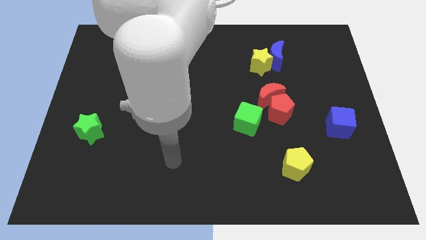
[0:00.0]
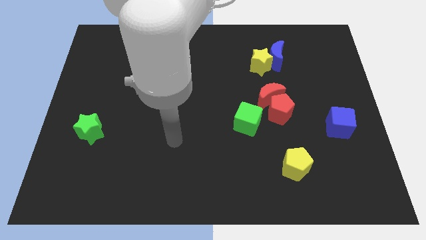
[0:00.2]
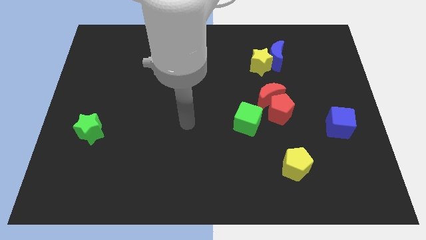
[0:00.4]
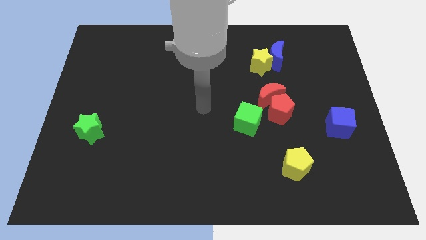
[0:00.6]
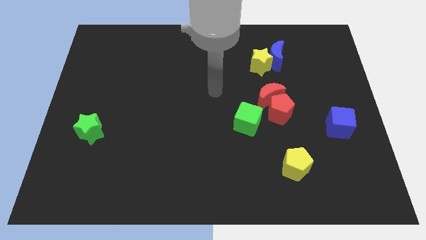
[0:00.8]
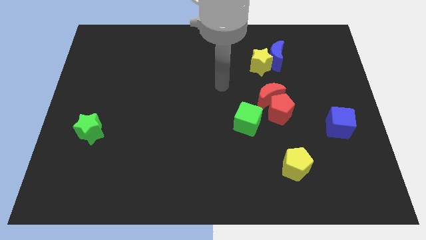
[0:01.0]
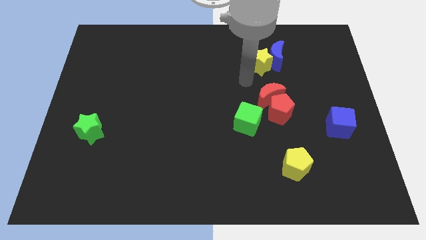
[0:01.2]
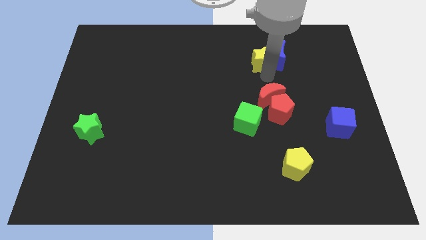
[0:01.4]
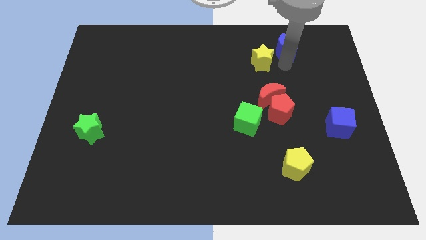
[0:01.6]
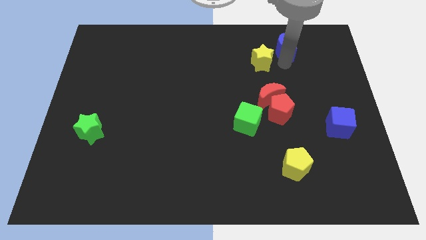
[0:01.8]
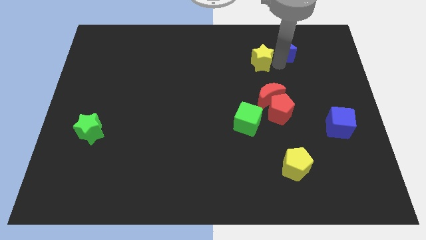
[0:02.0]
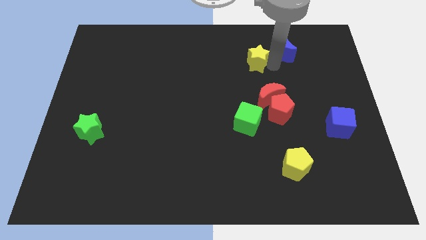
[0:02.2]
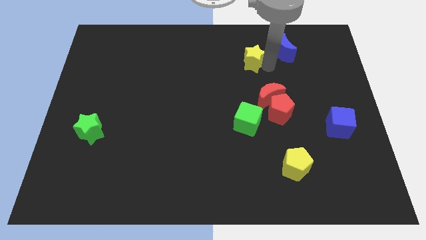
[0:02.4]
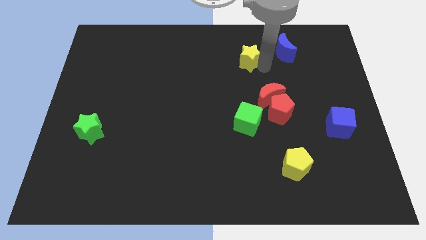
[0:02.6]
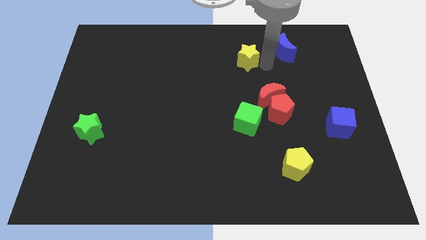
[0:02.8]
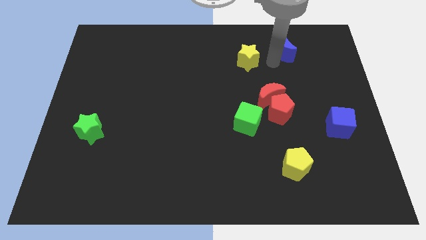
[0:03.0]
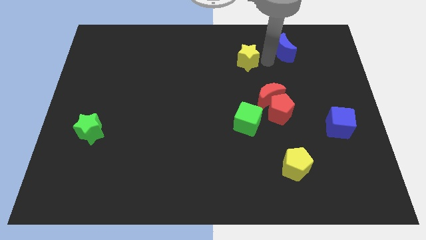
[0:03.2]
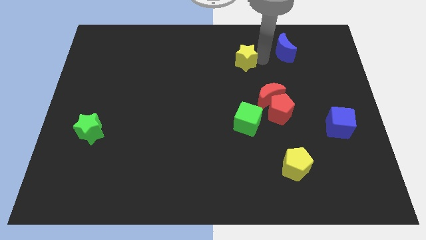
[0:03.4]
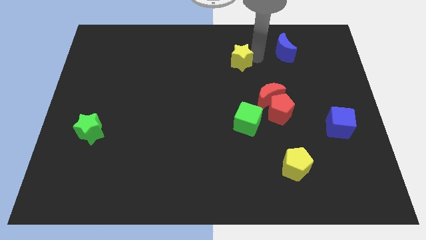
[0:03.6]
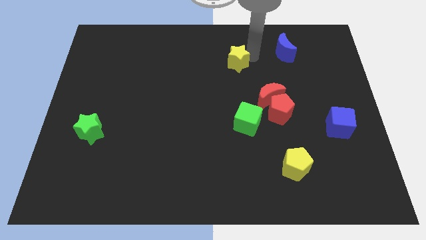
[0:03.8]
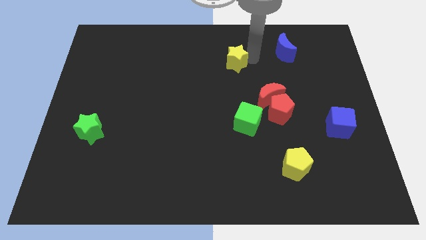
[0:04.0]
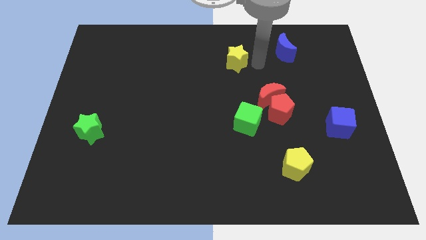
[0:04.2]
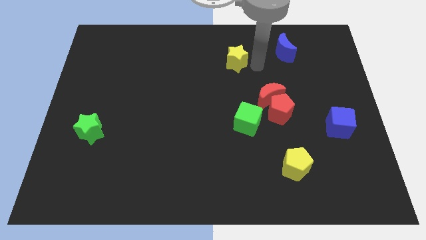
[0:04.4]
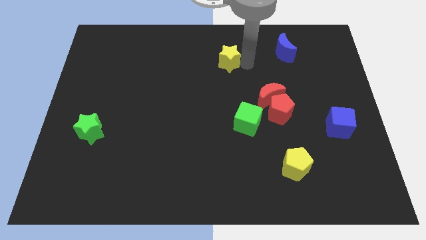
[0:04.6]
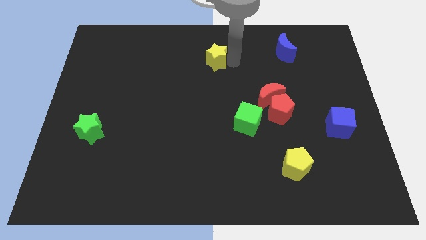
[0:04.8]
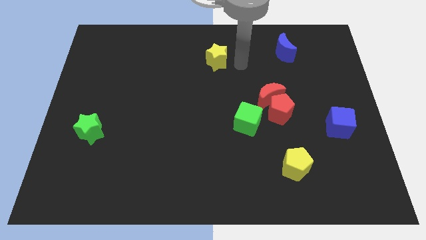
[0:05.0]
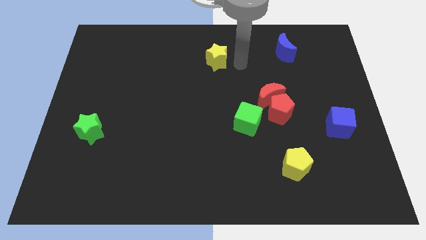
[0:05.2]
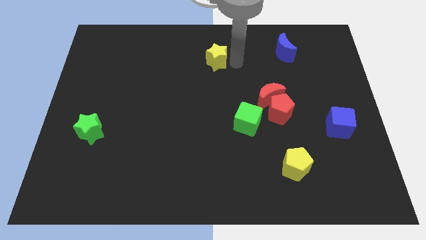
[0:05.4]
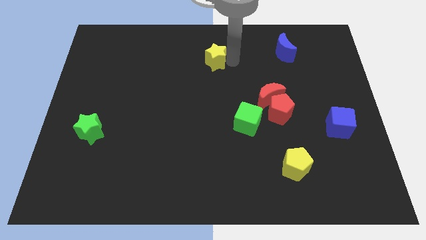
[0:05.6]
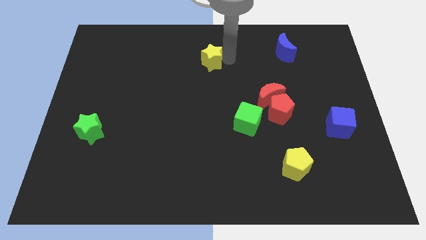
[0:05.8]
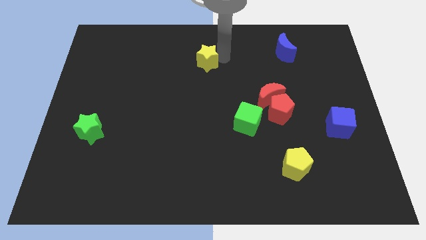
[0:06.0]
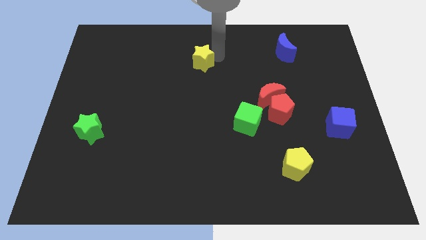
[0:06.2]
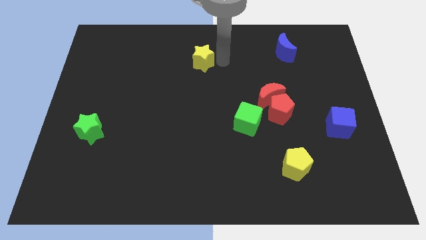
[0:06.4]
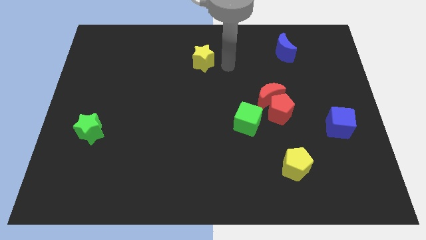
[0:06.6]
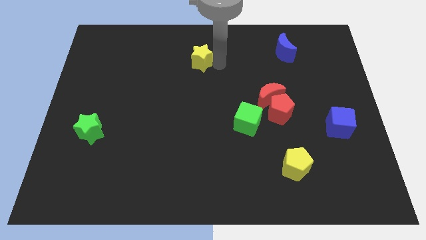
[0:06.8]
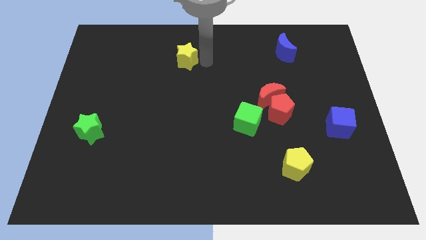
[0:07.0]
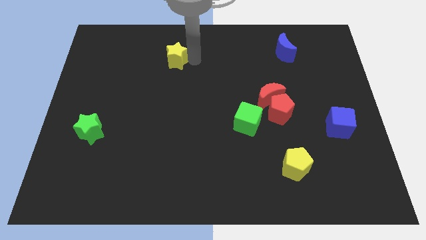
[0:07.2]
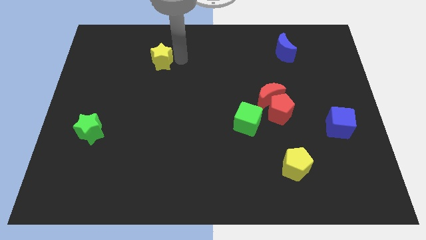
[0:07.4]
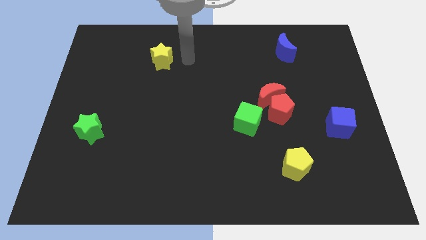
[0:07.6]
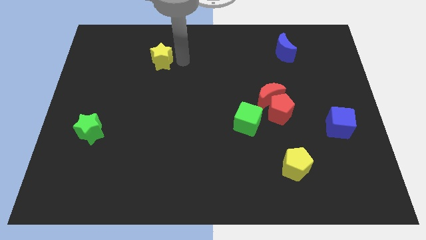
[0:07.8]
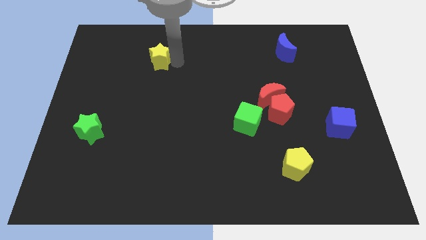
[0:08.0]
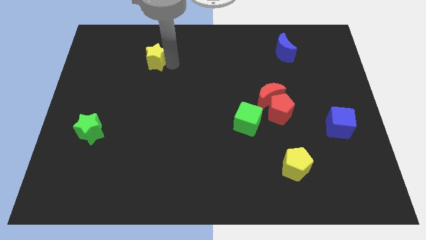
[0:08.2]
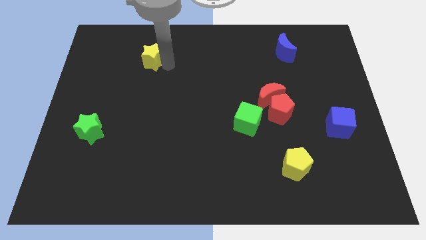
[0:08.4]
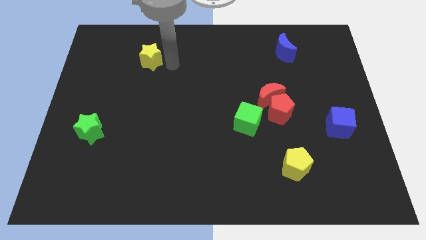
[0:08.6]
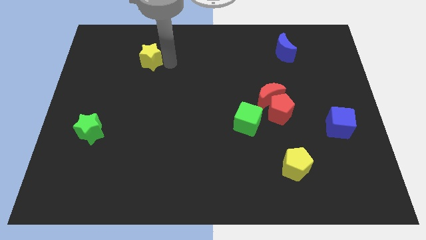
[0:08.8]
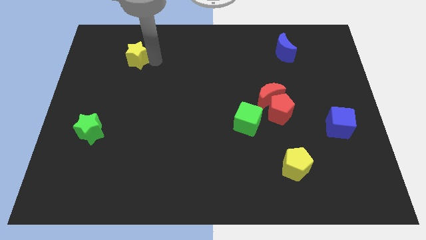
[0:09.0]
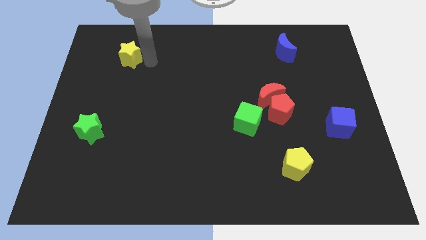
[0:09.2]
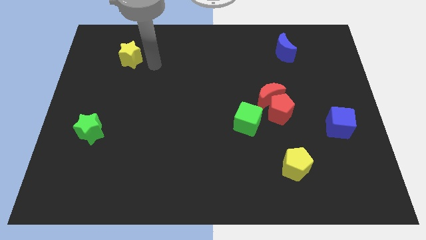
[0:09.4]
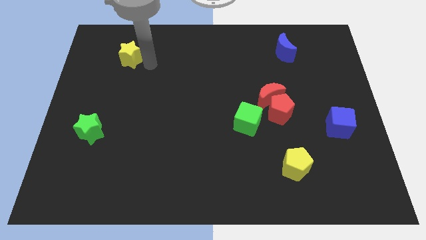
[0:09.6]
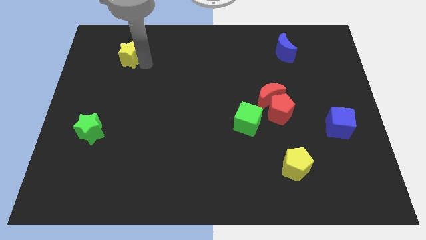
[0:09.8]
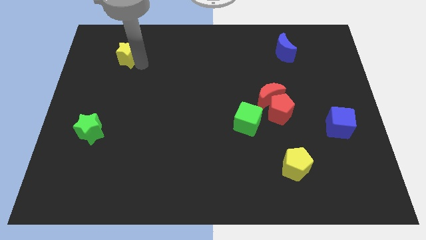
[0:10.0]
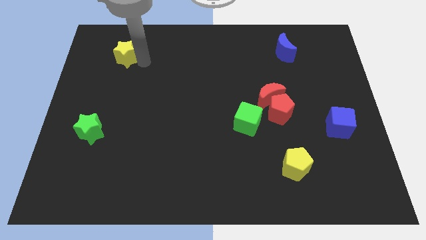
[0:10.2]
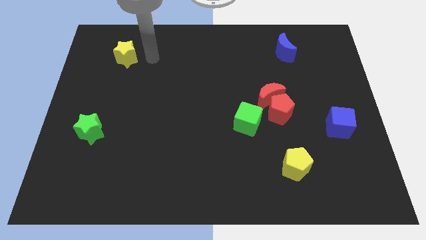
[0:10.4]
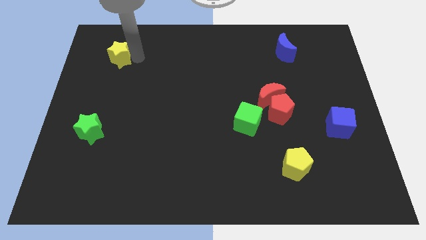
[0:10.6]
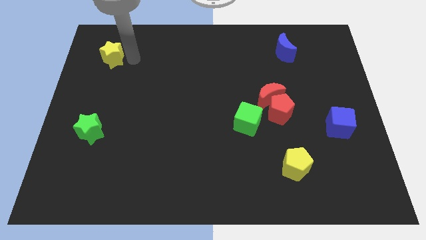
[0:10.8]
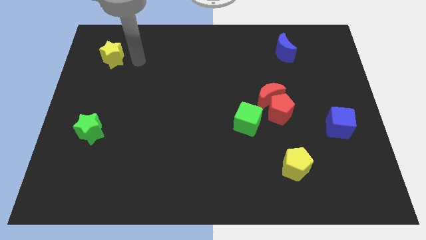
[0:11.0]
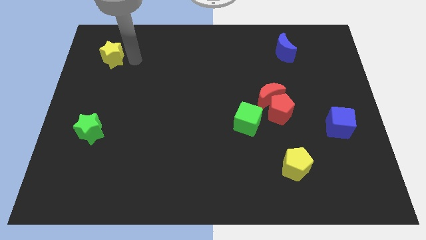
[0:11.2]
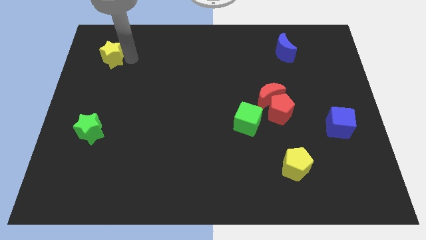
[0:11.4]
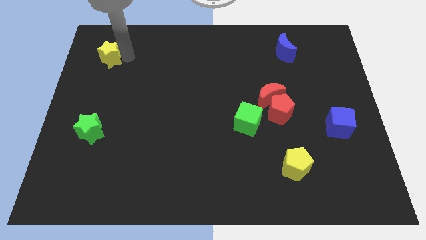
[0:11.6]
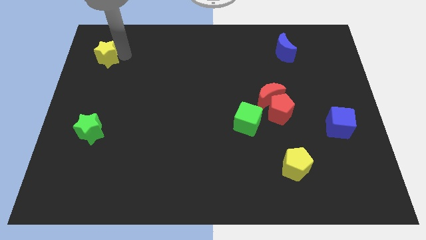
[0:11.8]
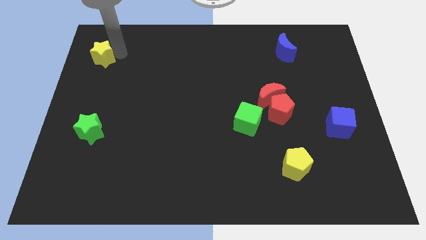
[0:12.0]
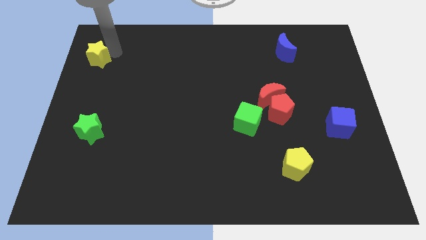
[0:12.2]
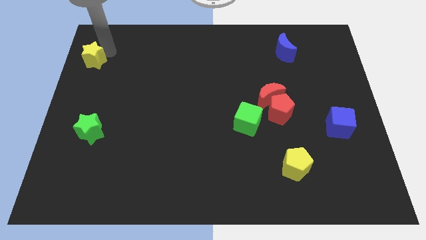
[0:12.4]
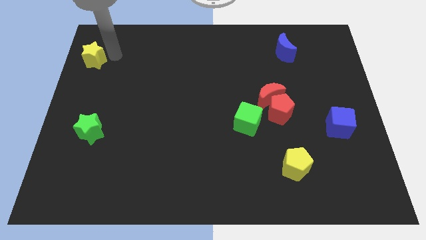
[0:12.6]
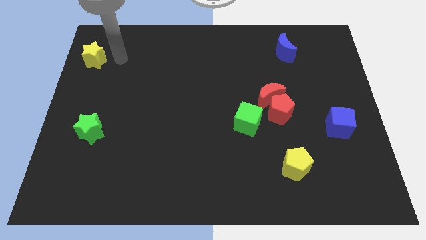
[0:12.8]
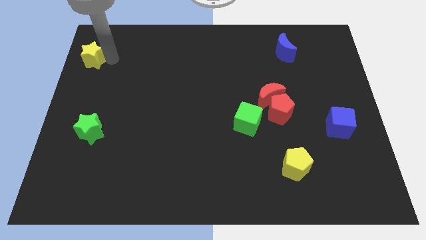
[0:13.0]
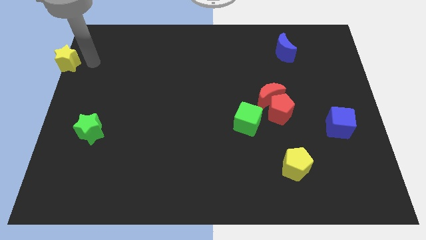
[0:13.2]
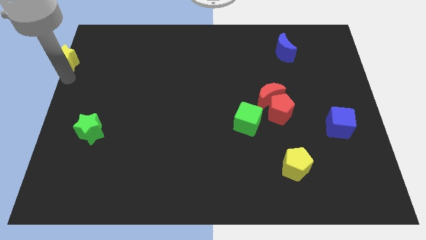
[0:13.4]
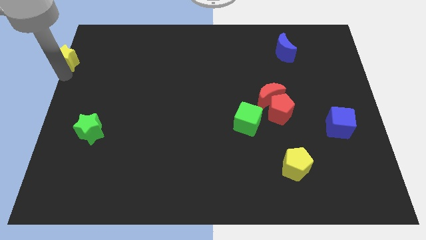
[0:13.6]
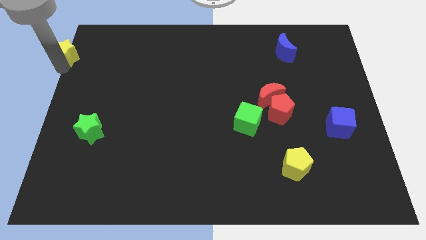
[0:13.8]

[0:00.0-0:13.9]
move the yellow star to the top left of the board
